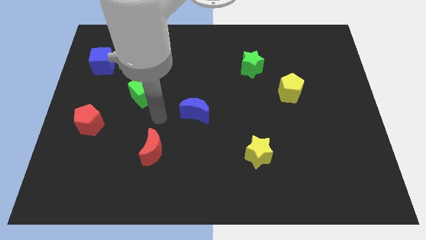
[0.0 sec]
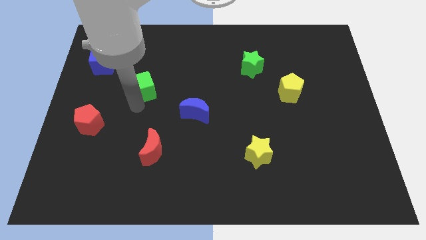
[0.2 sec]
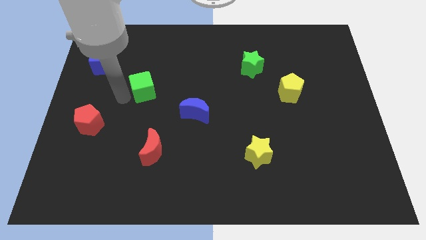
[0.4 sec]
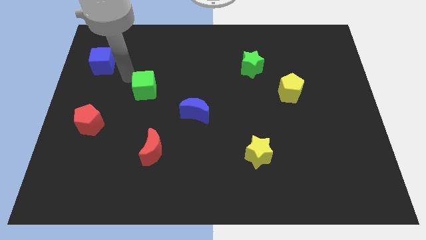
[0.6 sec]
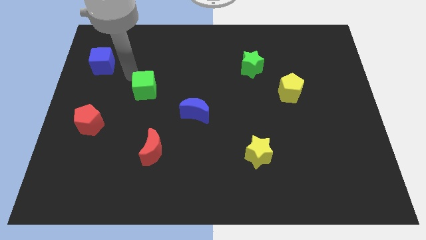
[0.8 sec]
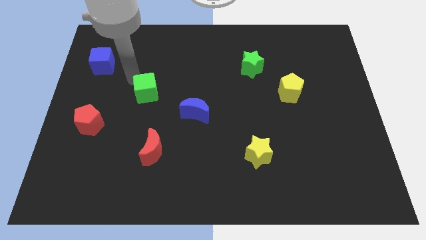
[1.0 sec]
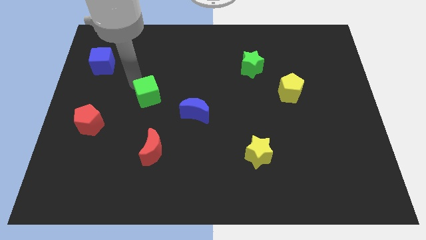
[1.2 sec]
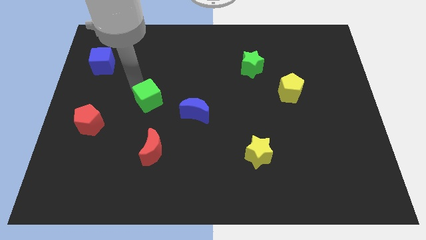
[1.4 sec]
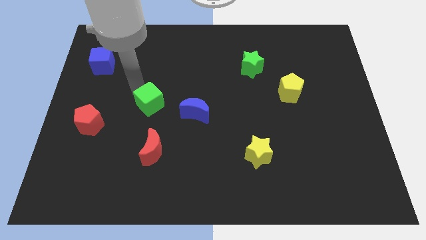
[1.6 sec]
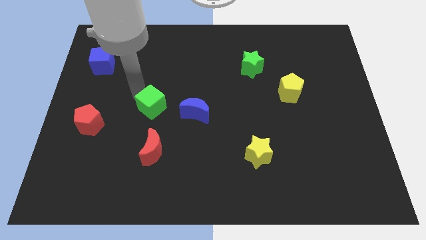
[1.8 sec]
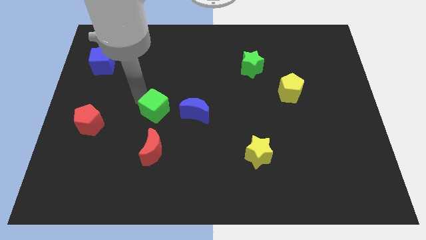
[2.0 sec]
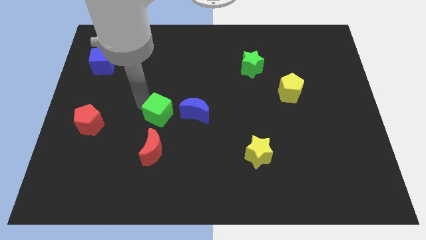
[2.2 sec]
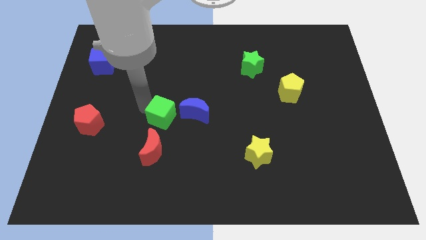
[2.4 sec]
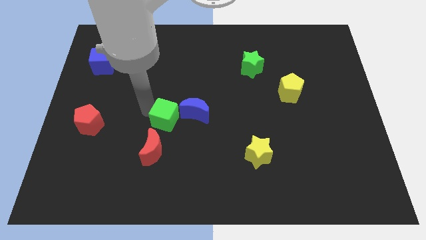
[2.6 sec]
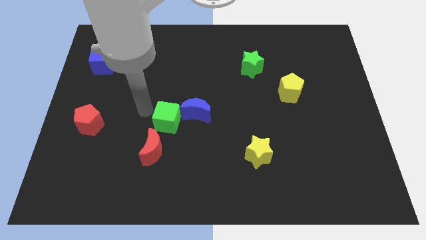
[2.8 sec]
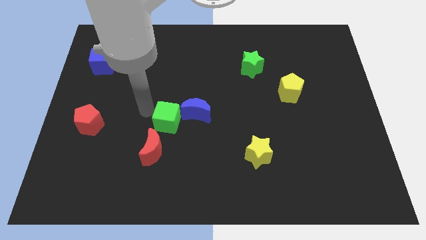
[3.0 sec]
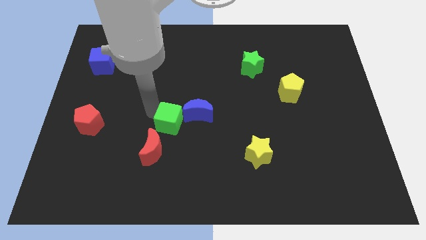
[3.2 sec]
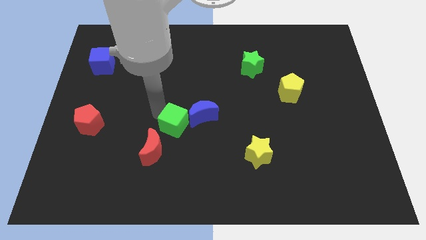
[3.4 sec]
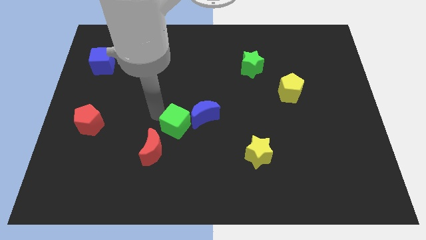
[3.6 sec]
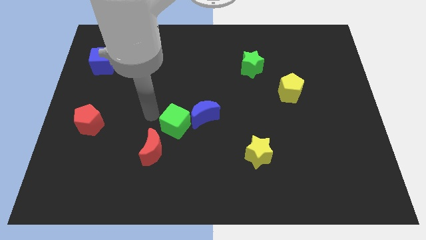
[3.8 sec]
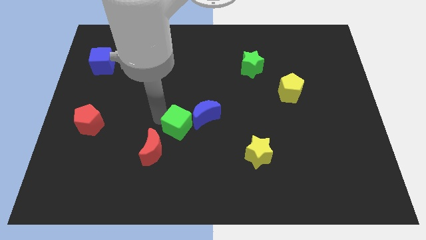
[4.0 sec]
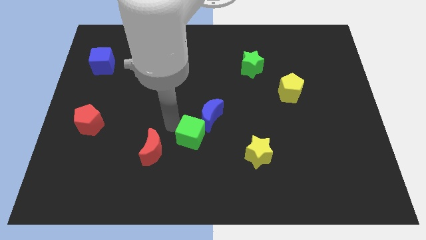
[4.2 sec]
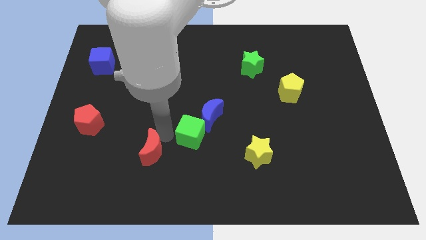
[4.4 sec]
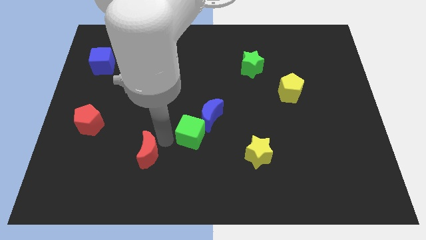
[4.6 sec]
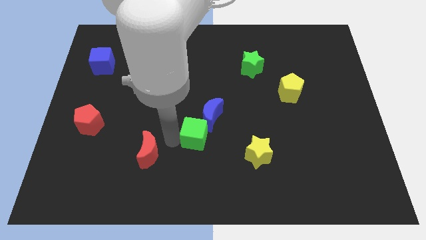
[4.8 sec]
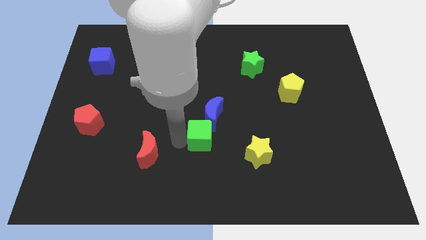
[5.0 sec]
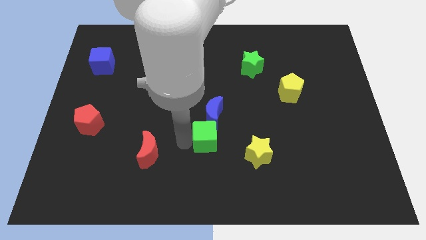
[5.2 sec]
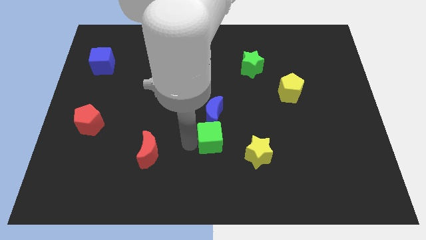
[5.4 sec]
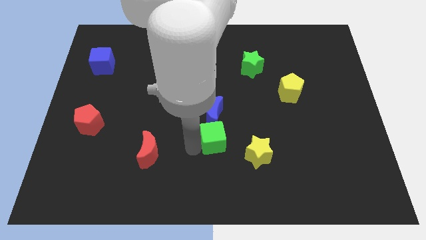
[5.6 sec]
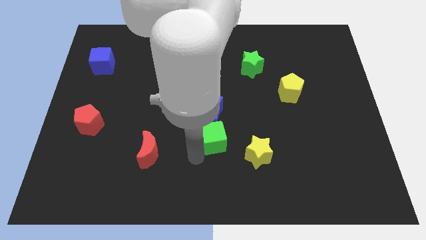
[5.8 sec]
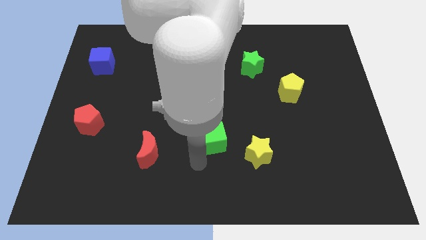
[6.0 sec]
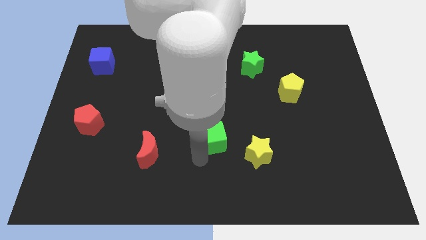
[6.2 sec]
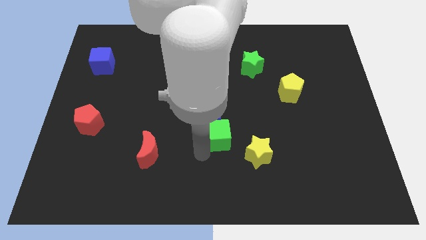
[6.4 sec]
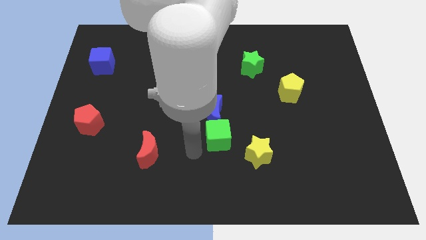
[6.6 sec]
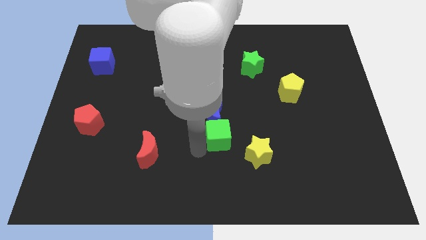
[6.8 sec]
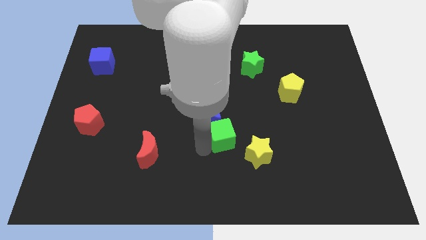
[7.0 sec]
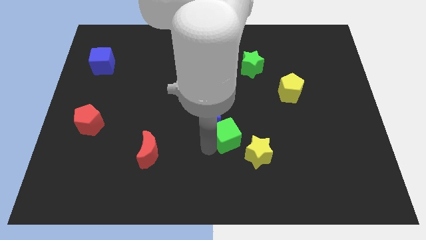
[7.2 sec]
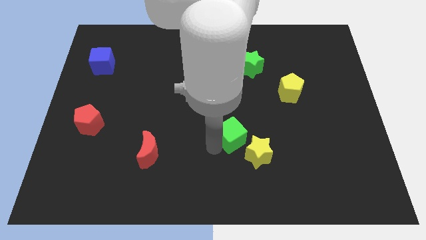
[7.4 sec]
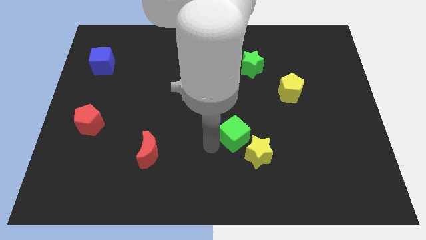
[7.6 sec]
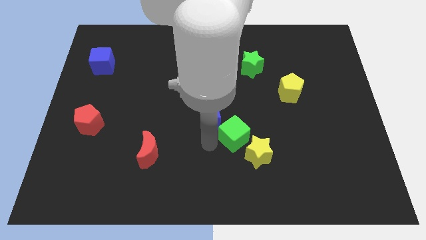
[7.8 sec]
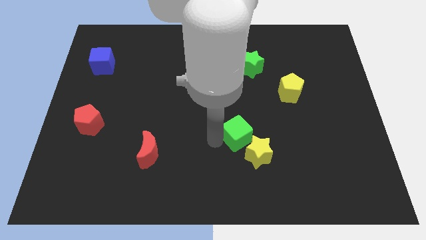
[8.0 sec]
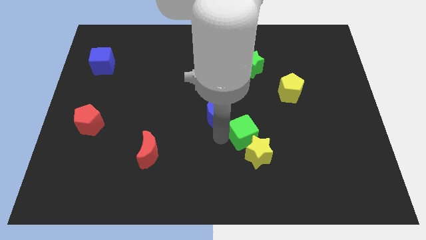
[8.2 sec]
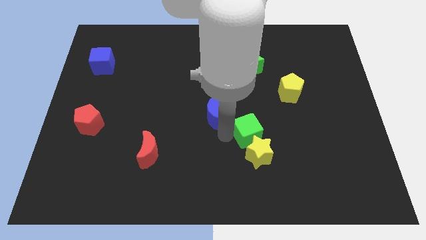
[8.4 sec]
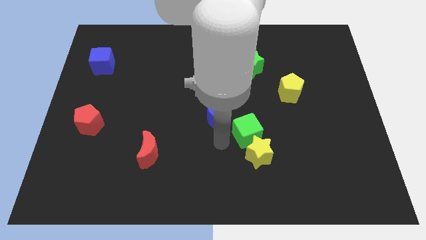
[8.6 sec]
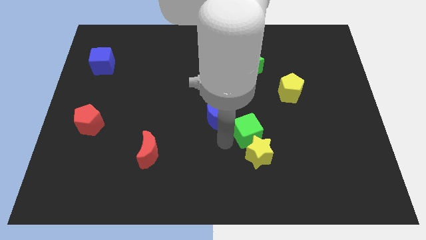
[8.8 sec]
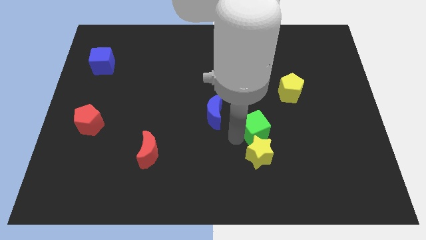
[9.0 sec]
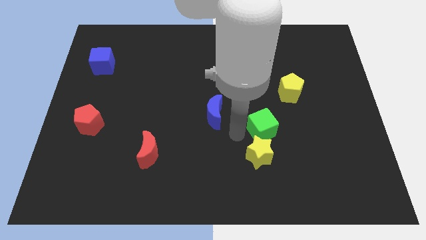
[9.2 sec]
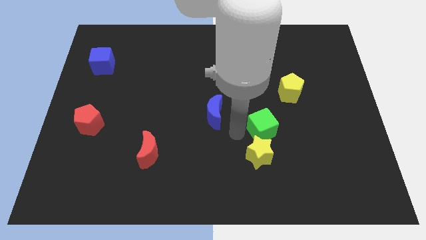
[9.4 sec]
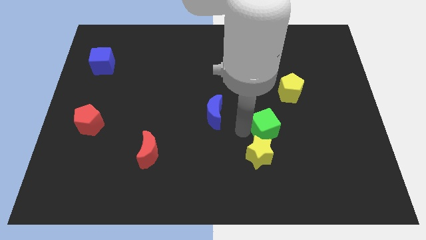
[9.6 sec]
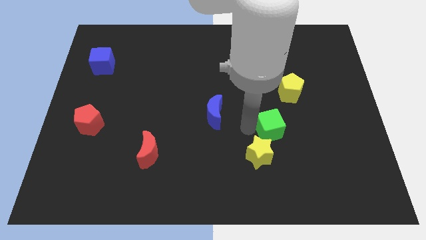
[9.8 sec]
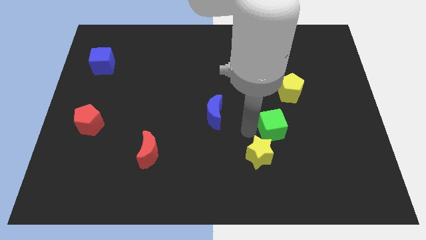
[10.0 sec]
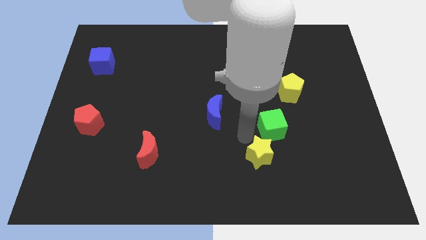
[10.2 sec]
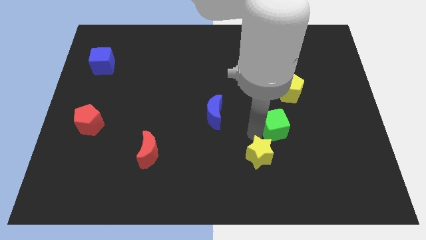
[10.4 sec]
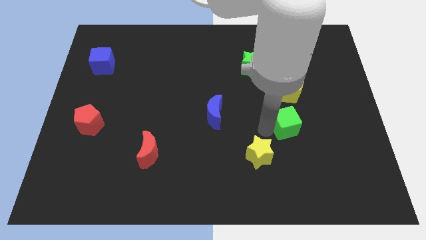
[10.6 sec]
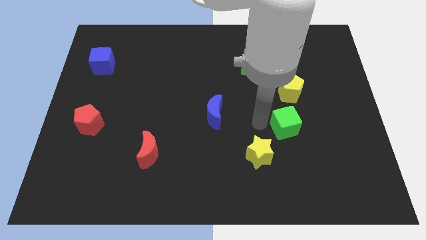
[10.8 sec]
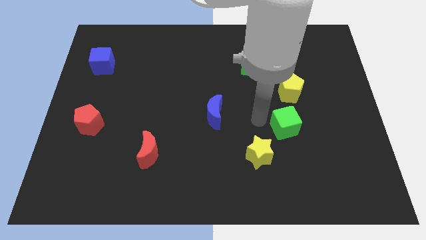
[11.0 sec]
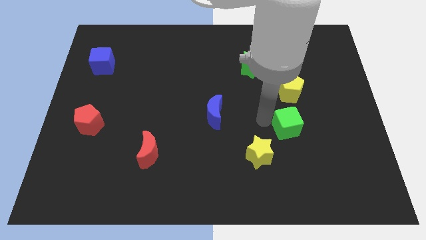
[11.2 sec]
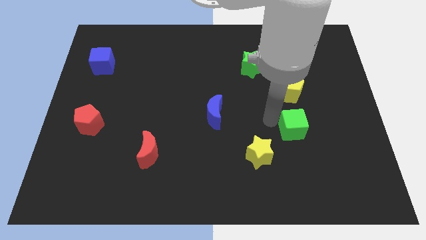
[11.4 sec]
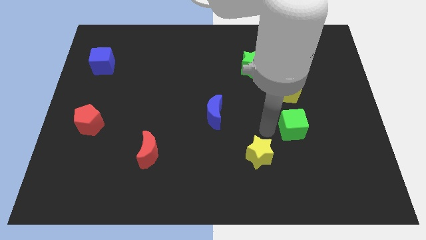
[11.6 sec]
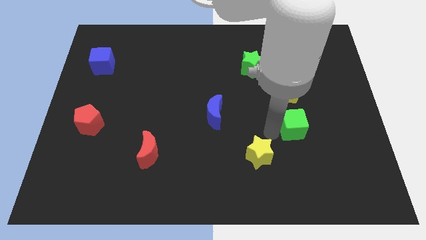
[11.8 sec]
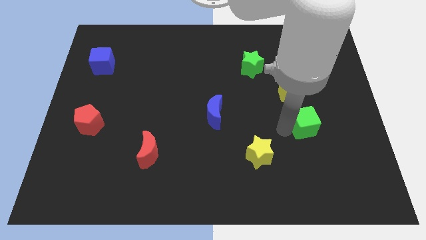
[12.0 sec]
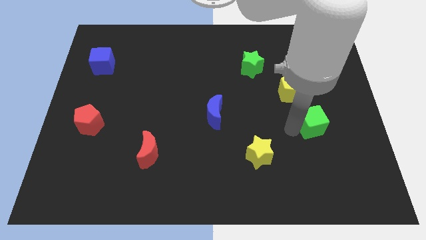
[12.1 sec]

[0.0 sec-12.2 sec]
slide the green cube to the bottom right of the yellow pentagon

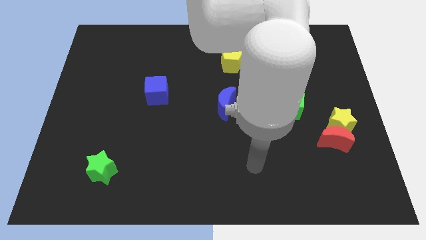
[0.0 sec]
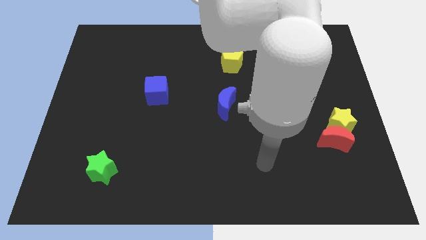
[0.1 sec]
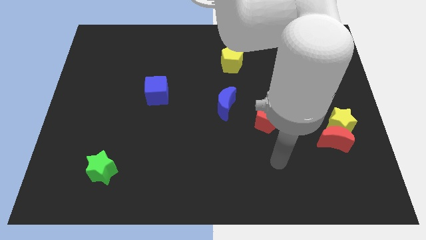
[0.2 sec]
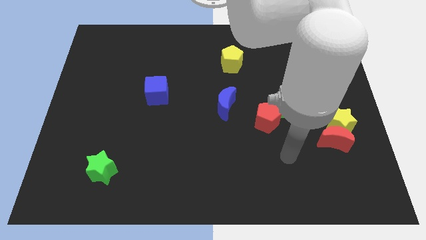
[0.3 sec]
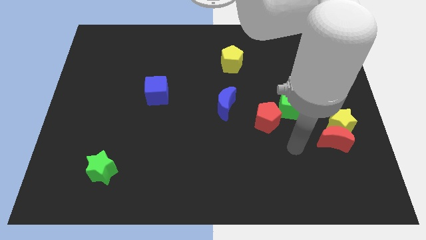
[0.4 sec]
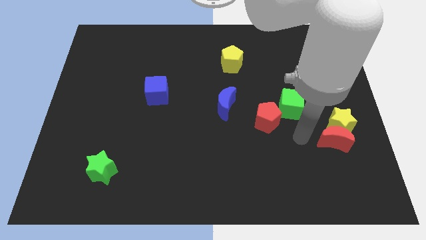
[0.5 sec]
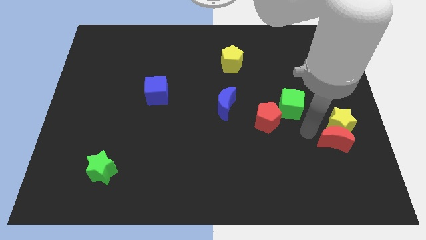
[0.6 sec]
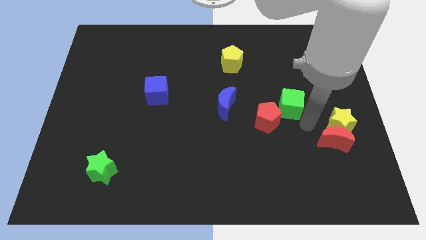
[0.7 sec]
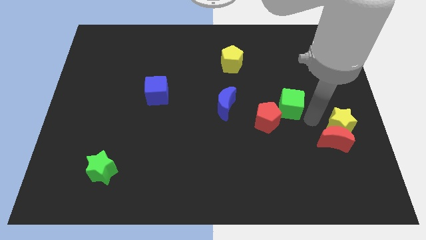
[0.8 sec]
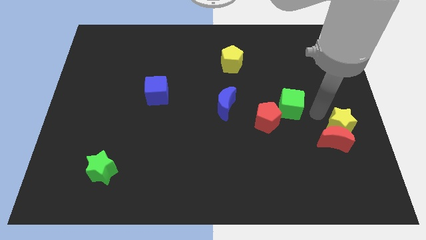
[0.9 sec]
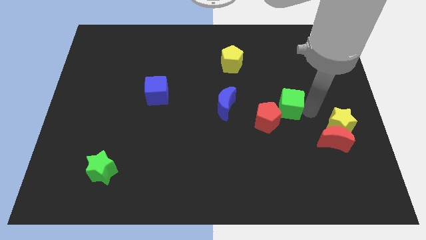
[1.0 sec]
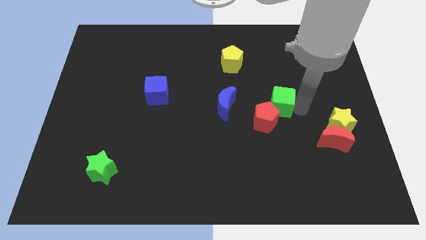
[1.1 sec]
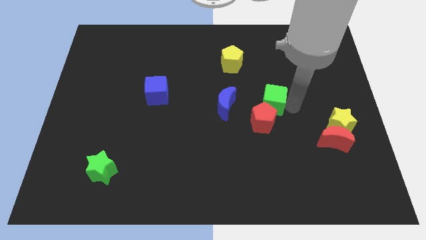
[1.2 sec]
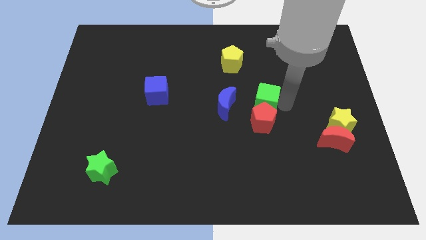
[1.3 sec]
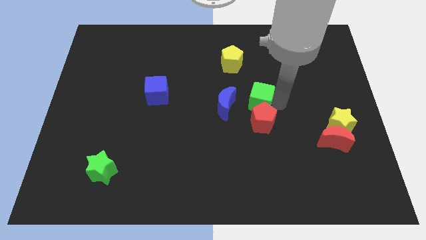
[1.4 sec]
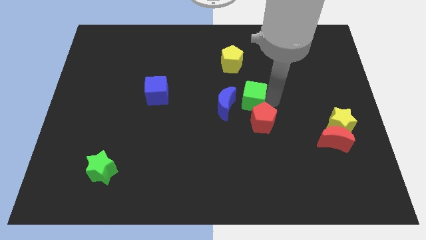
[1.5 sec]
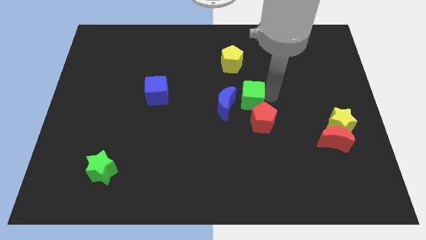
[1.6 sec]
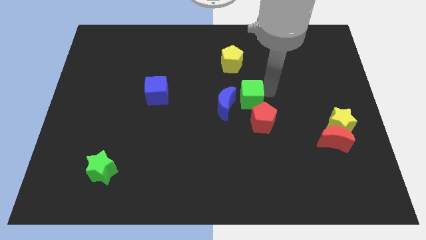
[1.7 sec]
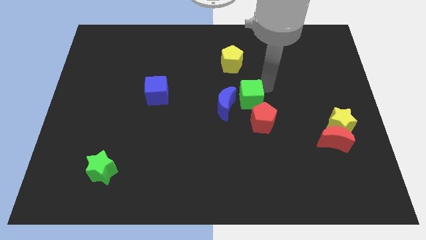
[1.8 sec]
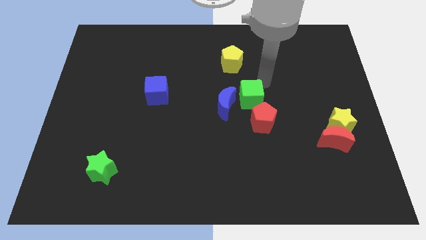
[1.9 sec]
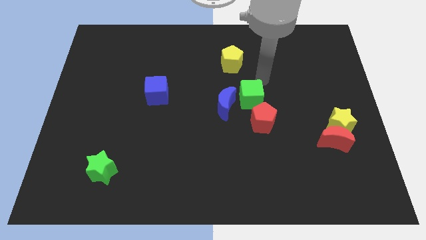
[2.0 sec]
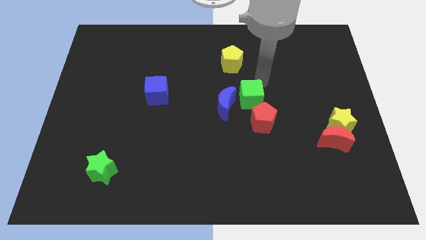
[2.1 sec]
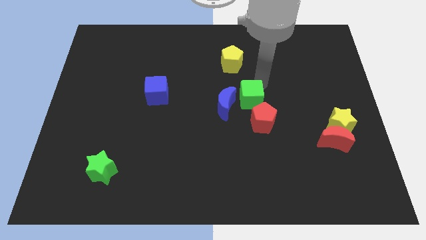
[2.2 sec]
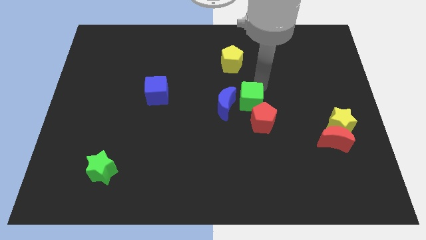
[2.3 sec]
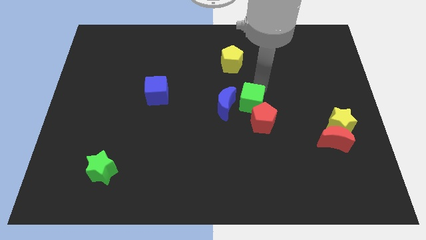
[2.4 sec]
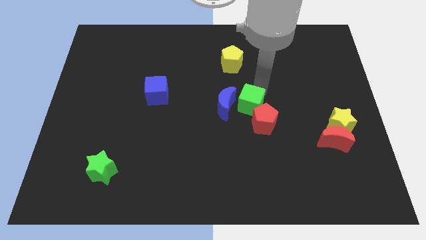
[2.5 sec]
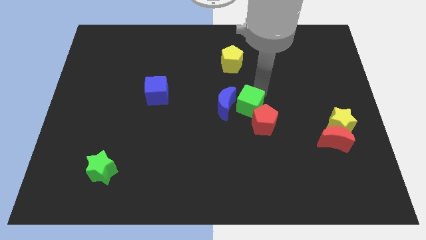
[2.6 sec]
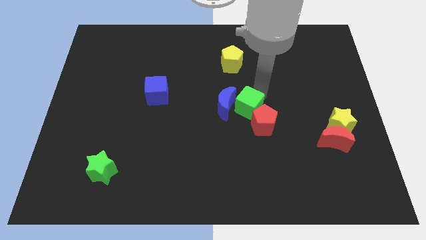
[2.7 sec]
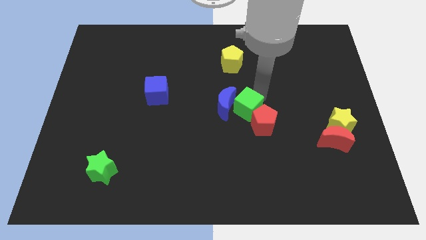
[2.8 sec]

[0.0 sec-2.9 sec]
push the green cube to the left side of the red pentagon
